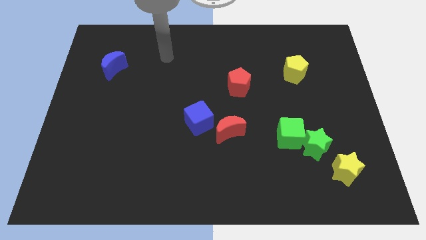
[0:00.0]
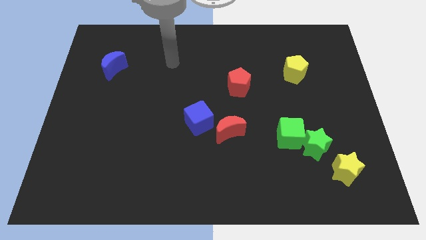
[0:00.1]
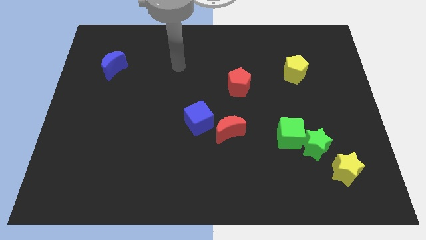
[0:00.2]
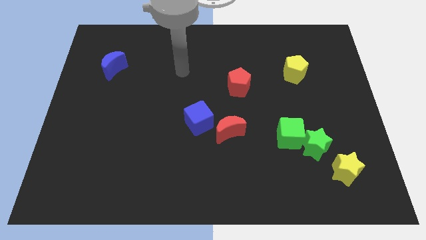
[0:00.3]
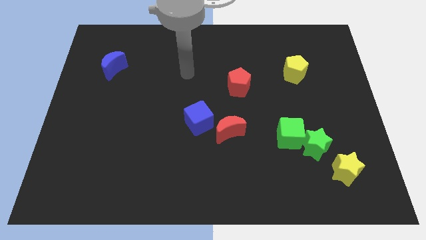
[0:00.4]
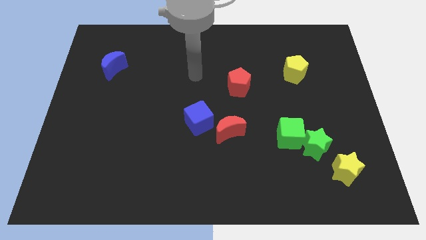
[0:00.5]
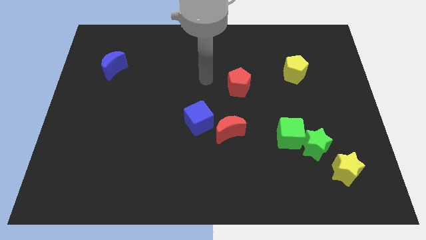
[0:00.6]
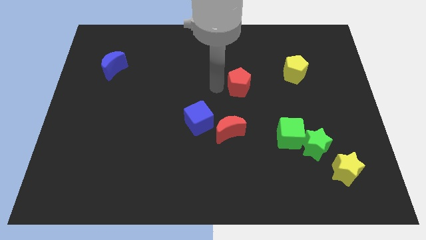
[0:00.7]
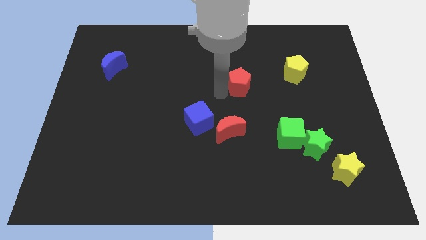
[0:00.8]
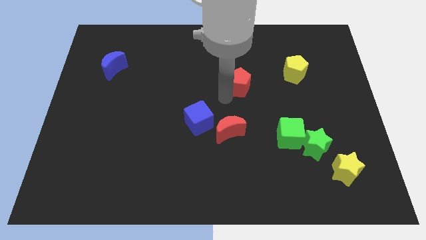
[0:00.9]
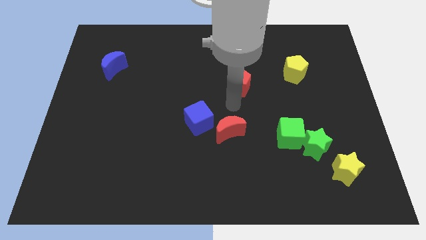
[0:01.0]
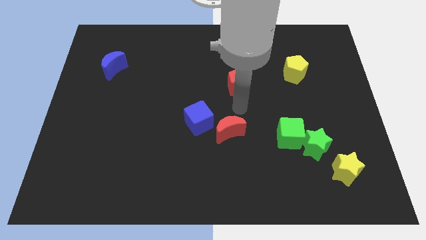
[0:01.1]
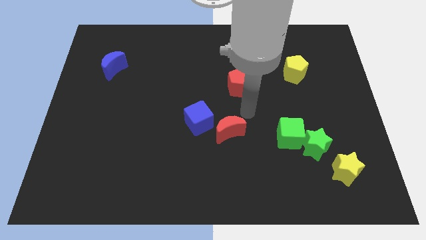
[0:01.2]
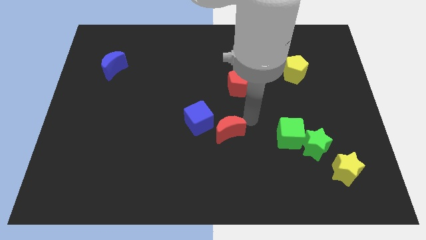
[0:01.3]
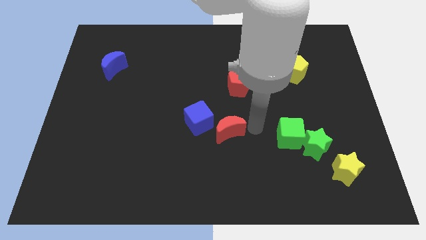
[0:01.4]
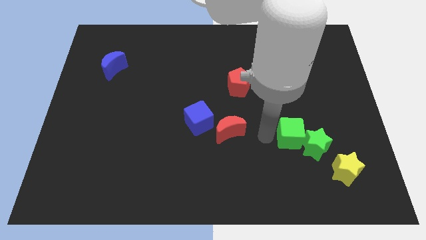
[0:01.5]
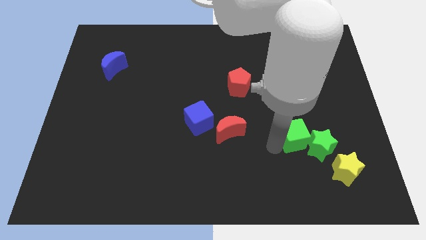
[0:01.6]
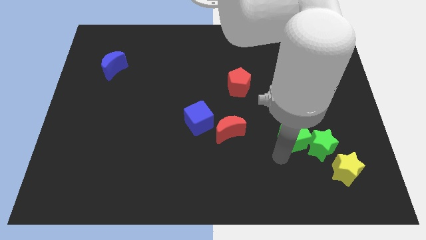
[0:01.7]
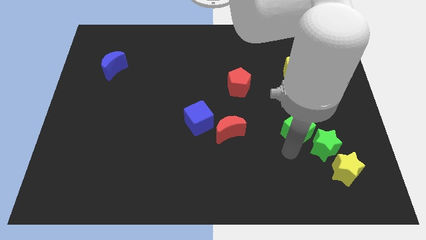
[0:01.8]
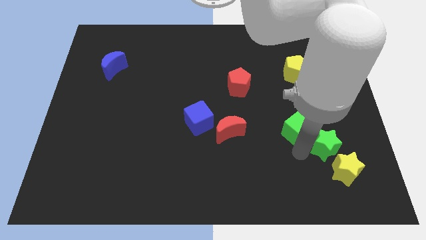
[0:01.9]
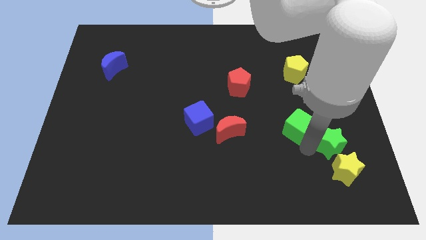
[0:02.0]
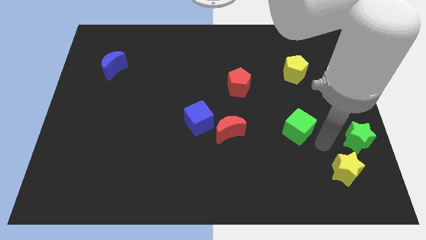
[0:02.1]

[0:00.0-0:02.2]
pull the green cube apart from the green star

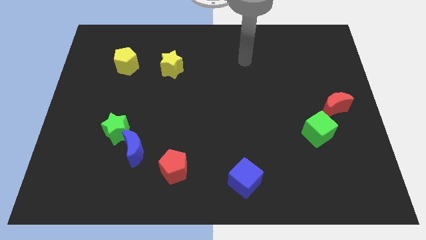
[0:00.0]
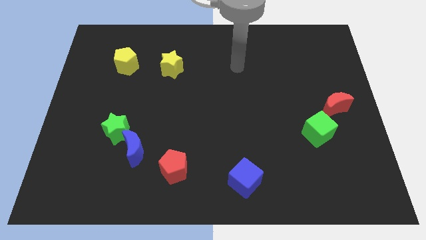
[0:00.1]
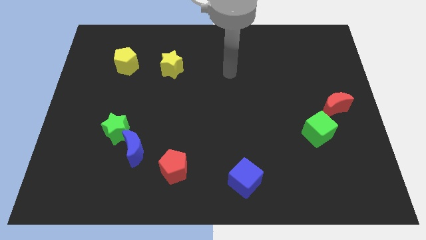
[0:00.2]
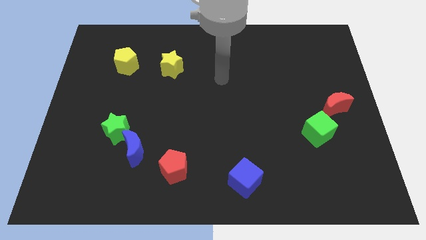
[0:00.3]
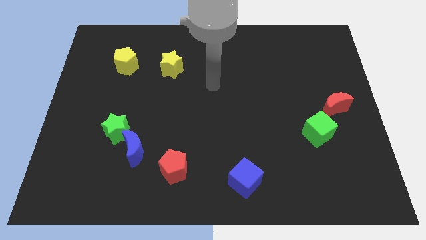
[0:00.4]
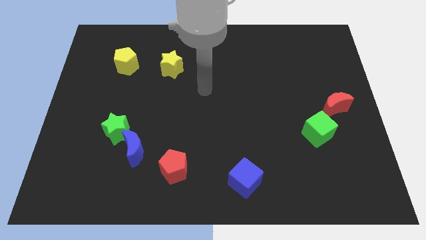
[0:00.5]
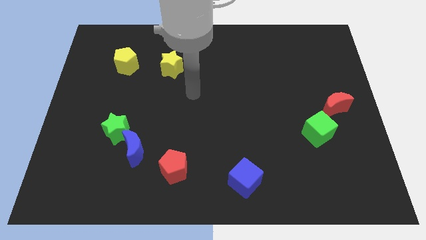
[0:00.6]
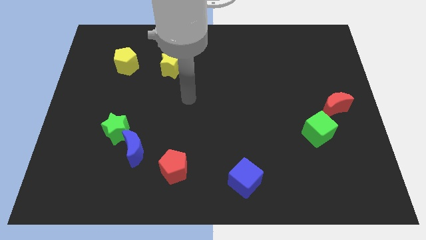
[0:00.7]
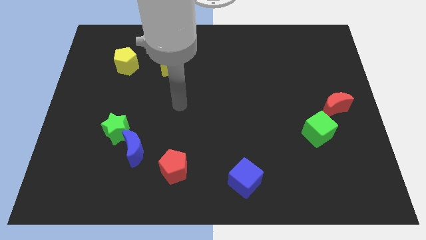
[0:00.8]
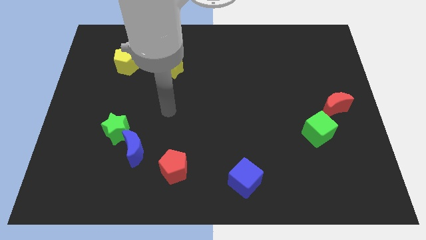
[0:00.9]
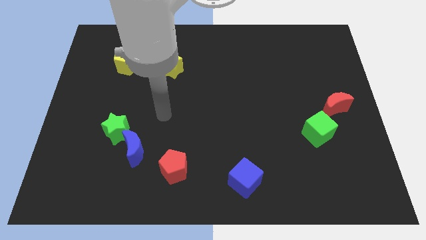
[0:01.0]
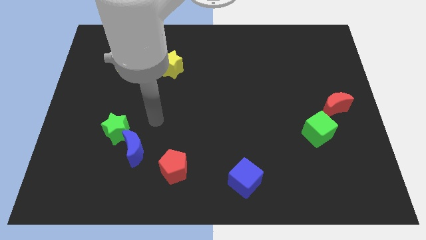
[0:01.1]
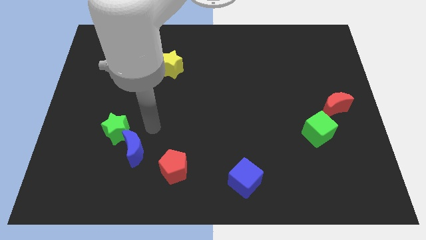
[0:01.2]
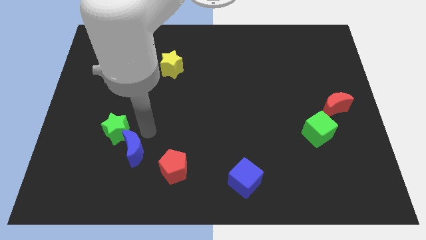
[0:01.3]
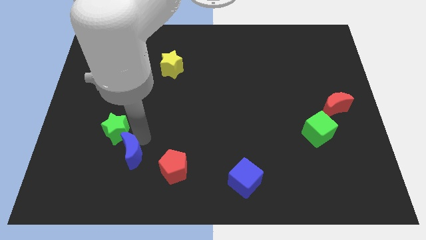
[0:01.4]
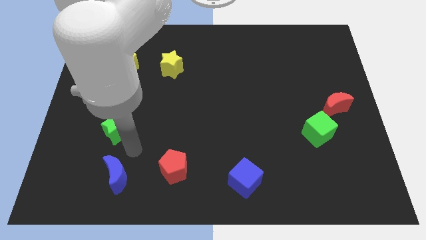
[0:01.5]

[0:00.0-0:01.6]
pull the green star apart from the blue moon

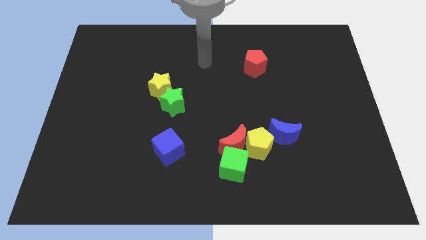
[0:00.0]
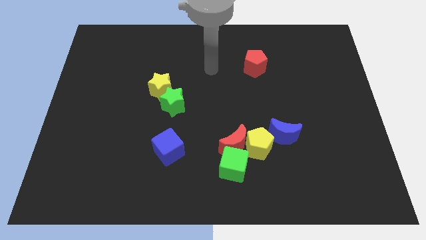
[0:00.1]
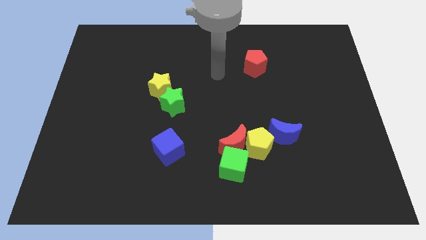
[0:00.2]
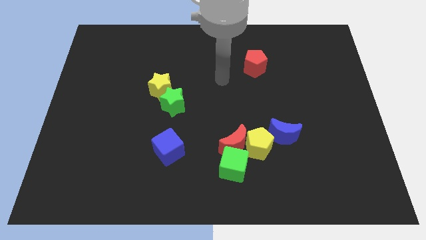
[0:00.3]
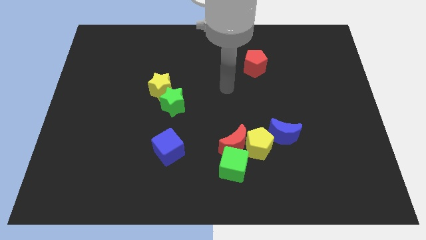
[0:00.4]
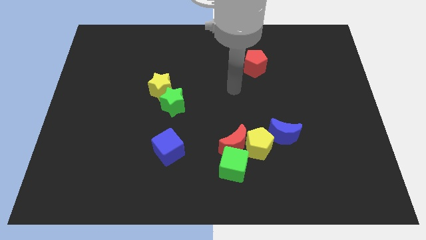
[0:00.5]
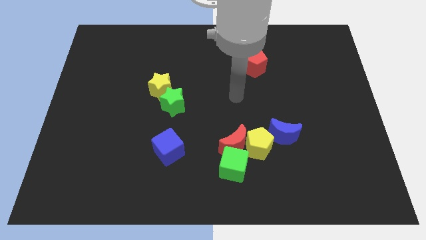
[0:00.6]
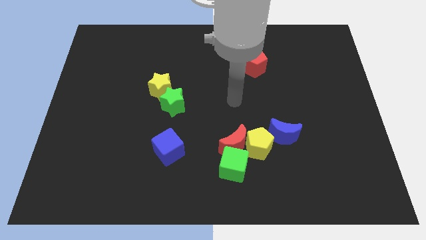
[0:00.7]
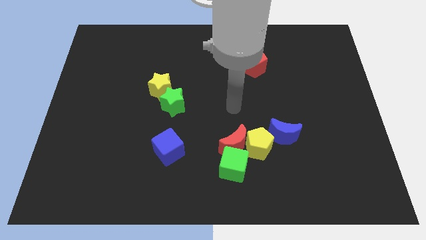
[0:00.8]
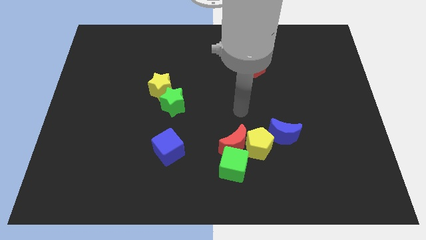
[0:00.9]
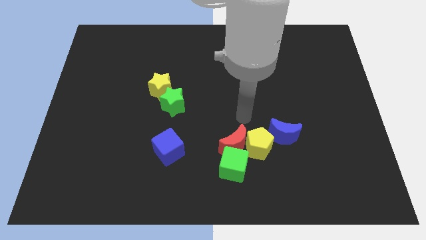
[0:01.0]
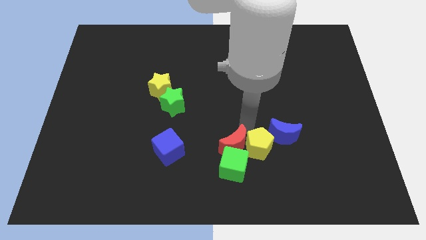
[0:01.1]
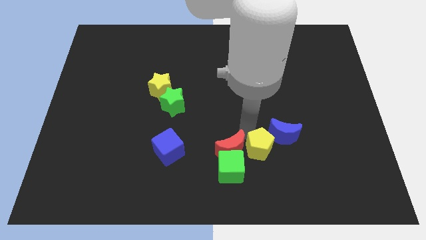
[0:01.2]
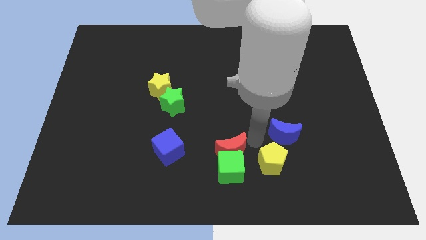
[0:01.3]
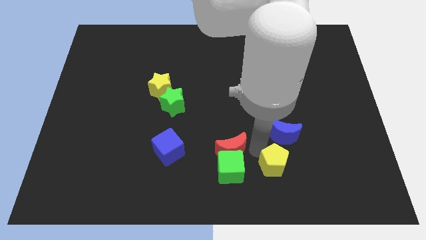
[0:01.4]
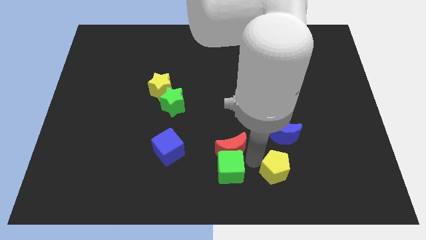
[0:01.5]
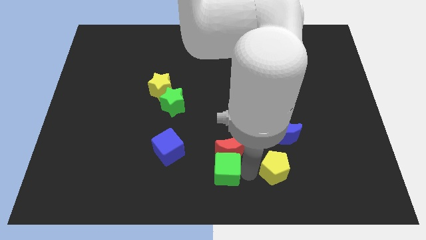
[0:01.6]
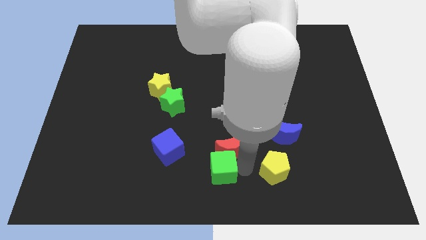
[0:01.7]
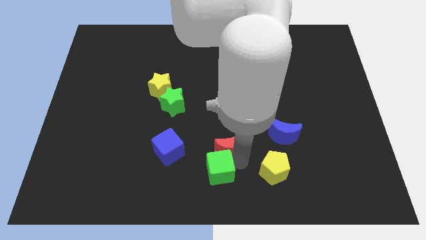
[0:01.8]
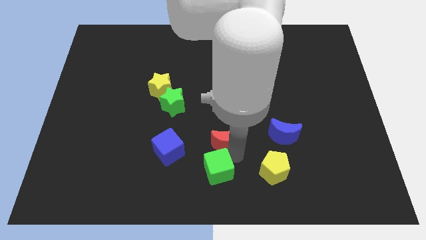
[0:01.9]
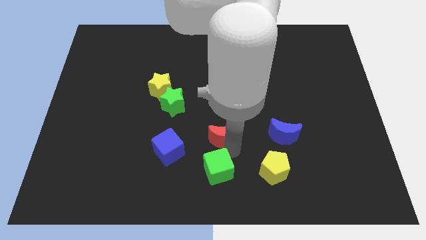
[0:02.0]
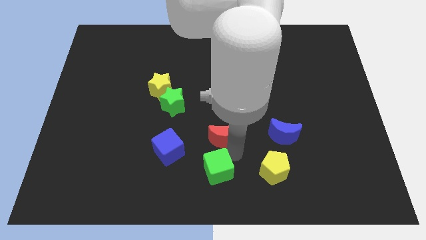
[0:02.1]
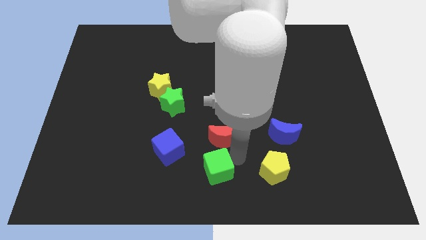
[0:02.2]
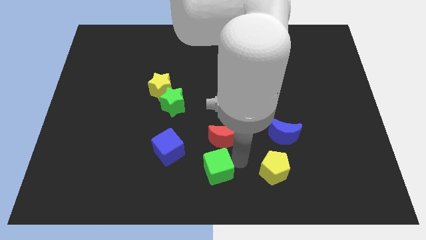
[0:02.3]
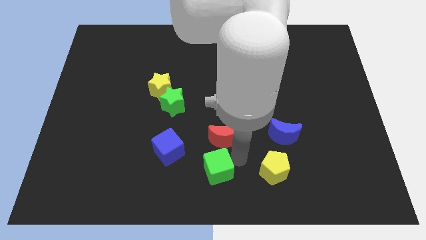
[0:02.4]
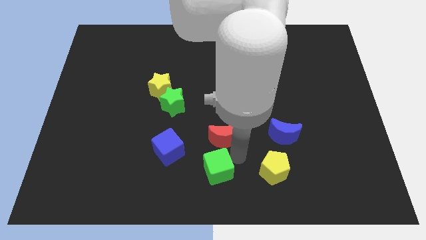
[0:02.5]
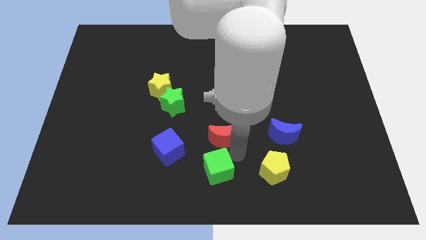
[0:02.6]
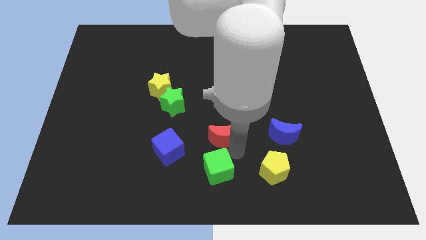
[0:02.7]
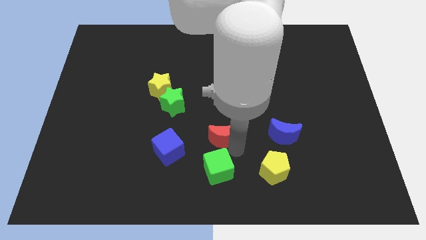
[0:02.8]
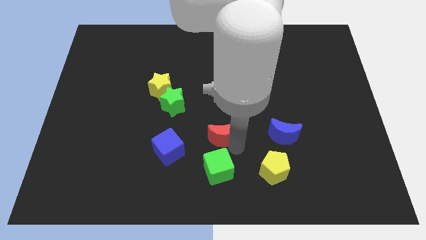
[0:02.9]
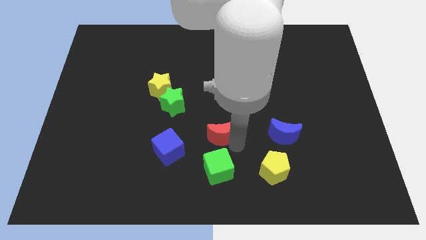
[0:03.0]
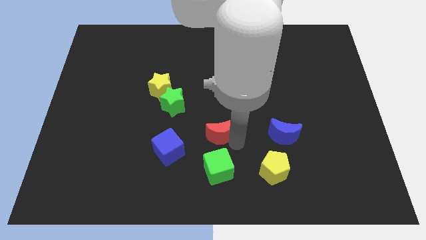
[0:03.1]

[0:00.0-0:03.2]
separate the red moon from the yellow pentagon and green cube

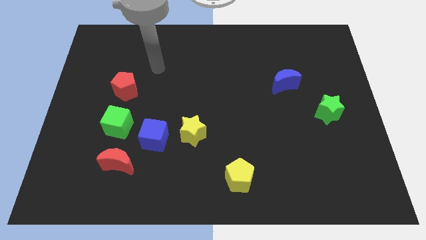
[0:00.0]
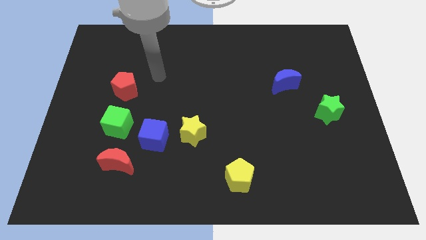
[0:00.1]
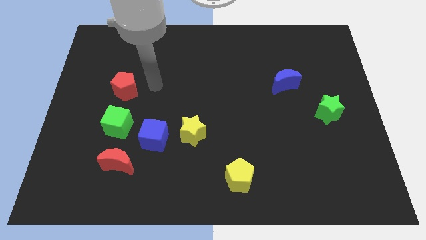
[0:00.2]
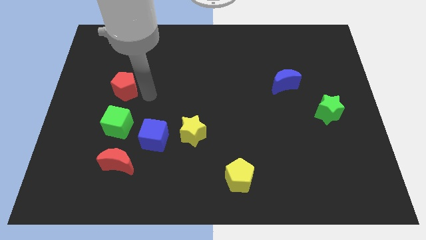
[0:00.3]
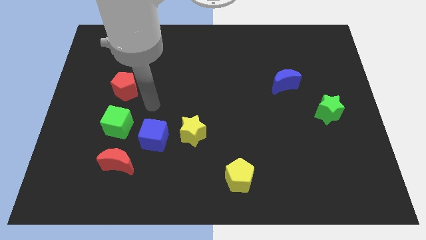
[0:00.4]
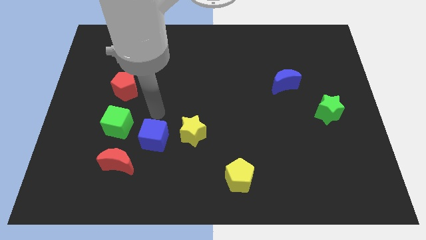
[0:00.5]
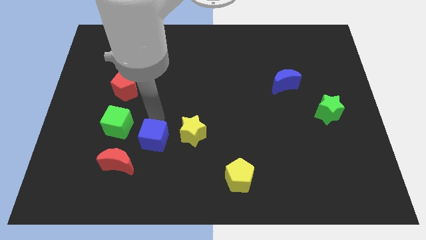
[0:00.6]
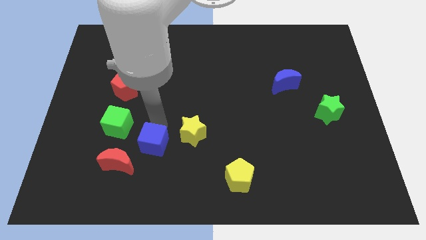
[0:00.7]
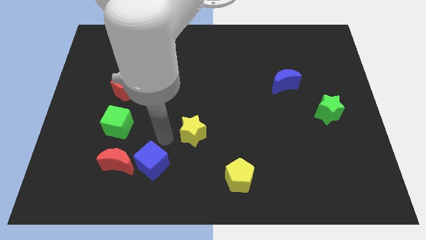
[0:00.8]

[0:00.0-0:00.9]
pull the yellow star apart from the blue cube

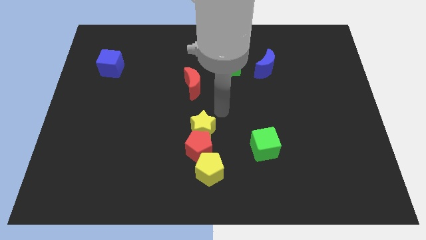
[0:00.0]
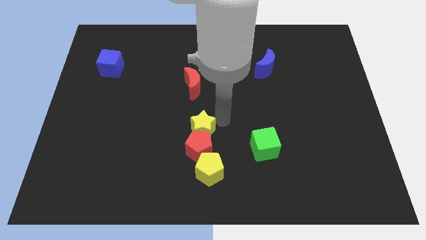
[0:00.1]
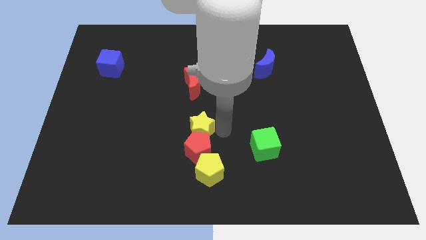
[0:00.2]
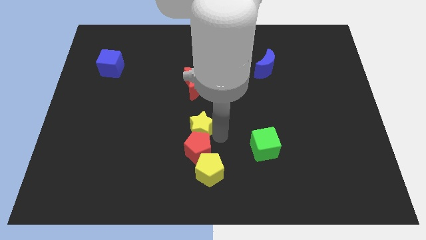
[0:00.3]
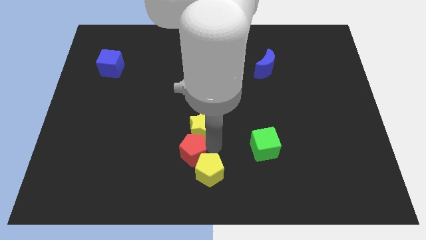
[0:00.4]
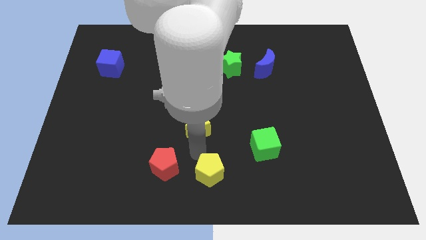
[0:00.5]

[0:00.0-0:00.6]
separate the yellow star from the red pentagon

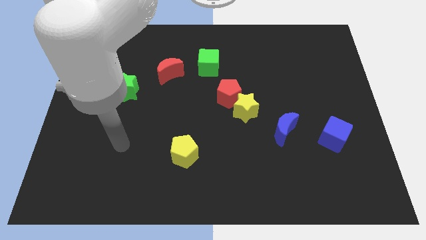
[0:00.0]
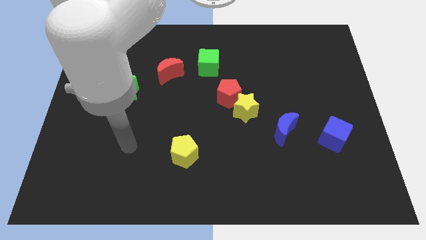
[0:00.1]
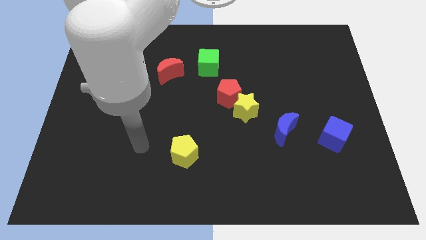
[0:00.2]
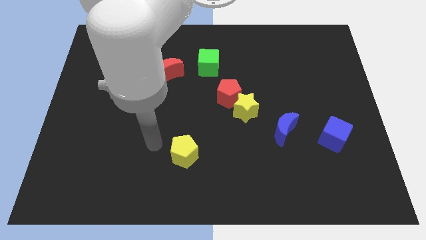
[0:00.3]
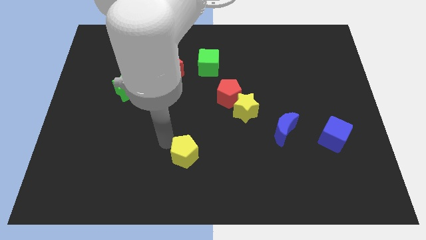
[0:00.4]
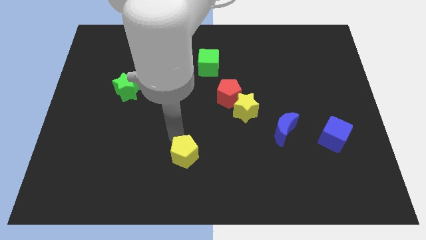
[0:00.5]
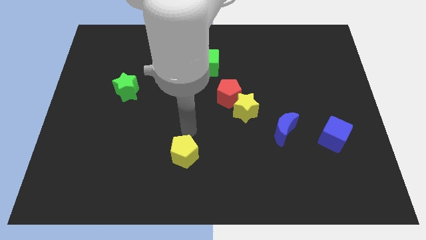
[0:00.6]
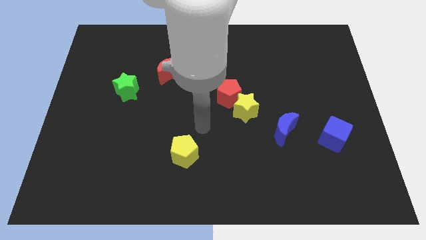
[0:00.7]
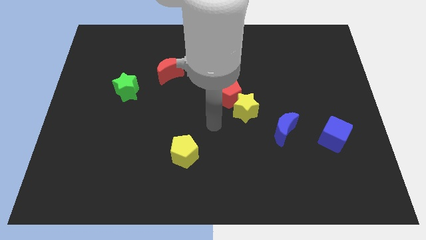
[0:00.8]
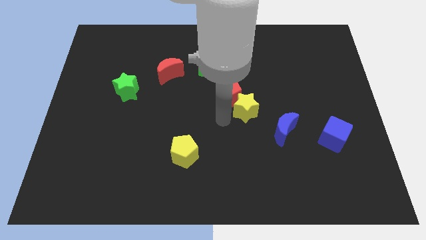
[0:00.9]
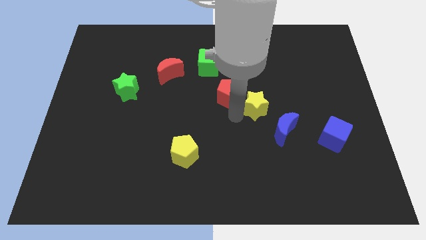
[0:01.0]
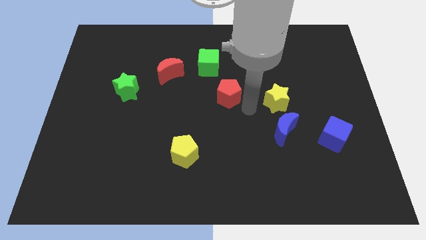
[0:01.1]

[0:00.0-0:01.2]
separate the red pentagon from the yellow star
